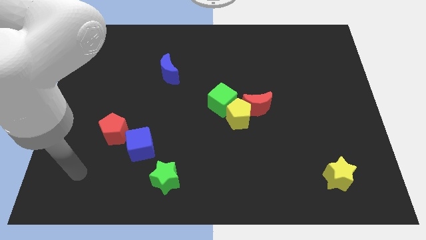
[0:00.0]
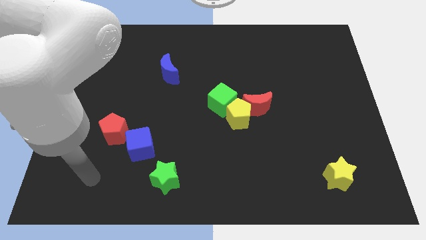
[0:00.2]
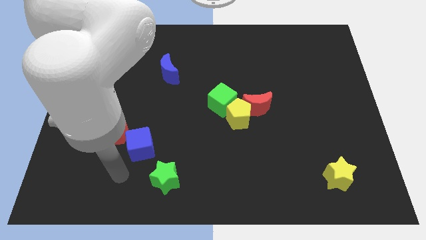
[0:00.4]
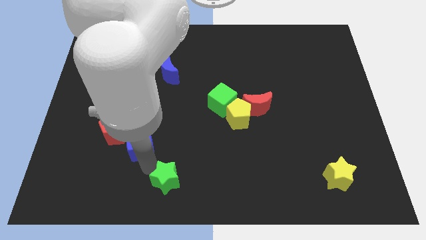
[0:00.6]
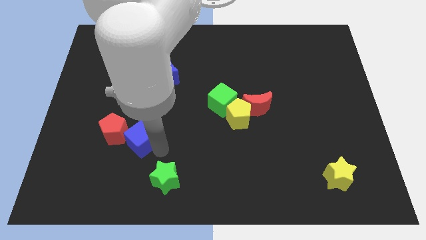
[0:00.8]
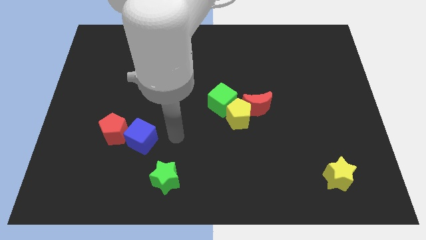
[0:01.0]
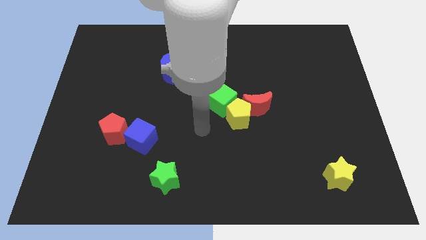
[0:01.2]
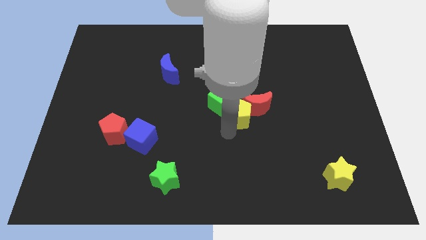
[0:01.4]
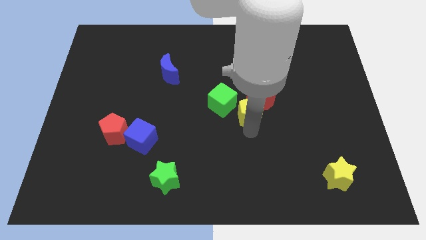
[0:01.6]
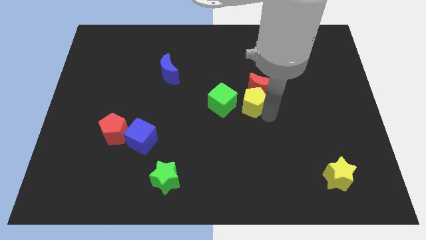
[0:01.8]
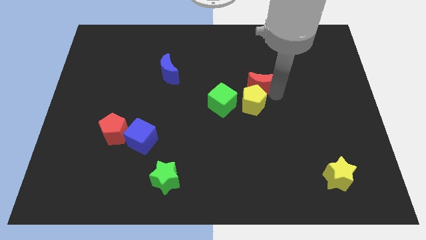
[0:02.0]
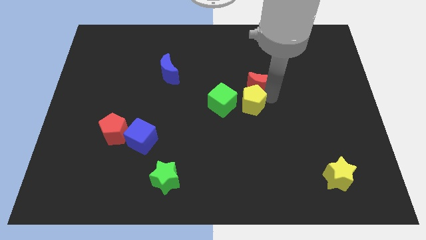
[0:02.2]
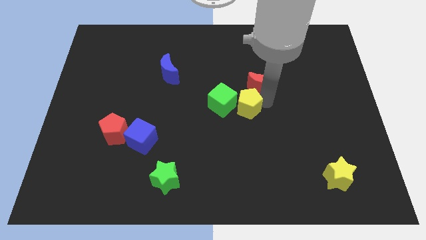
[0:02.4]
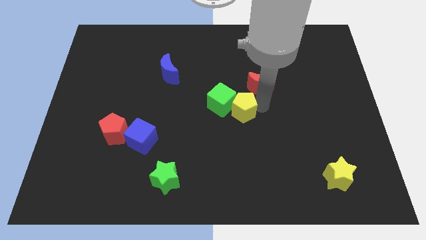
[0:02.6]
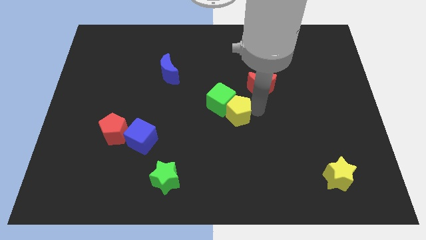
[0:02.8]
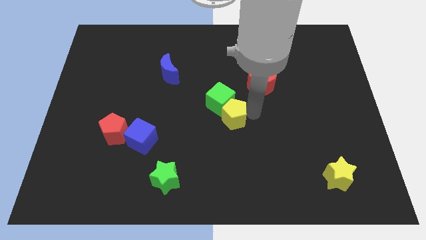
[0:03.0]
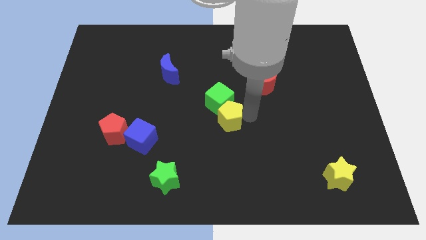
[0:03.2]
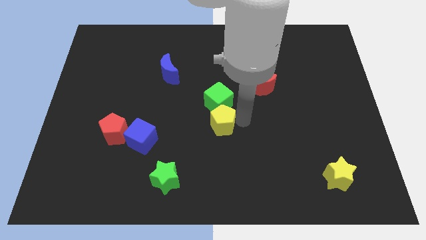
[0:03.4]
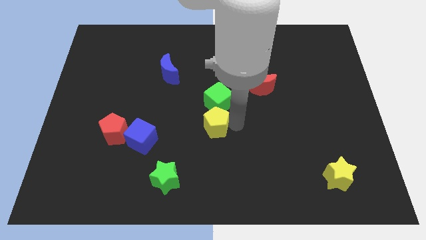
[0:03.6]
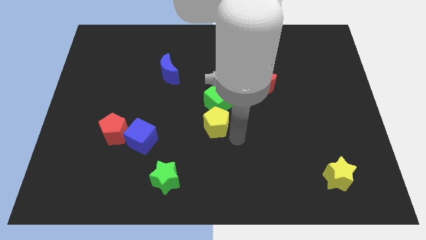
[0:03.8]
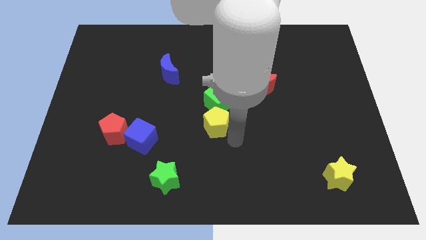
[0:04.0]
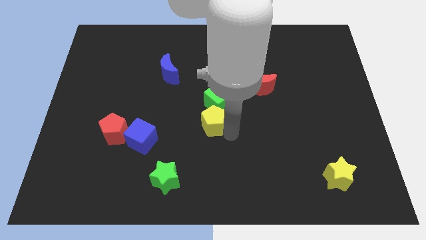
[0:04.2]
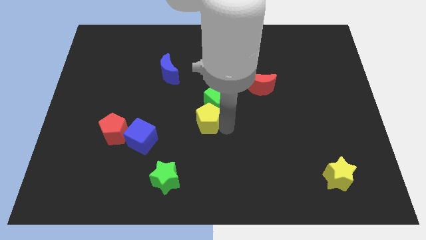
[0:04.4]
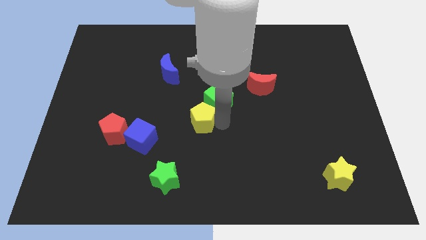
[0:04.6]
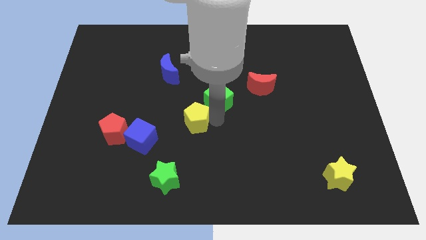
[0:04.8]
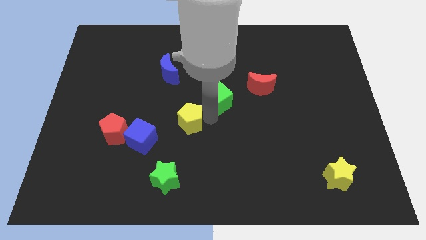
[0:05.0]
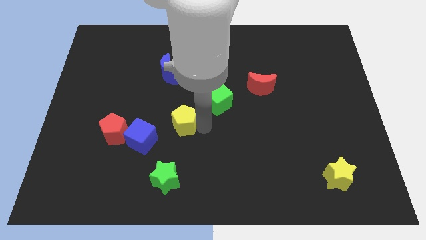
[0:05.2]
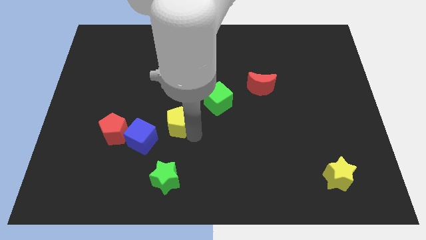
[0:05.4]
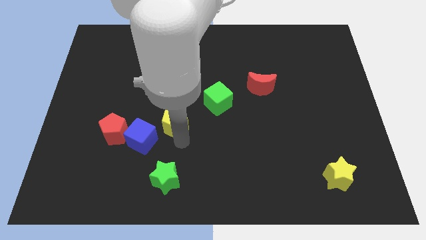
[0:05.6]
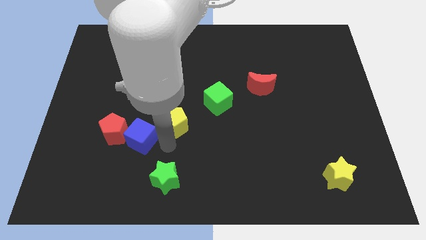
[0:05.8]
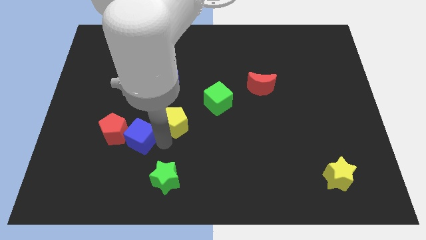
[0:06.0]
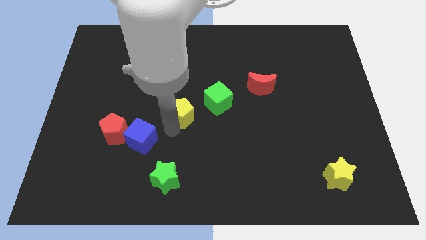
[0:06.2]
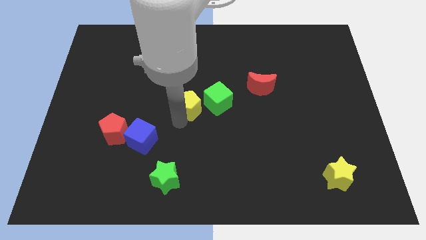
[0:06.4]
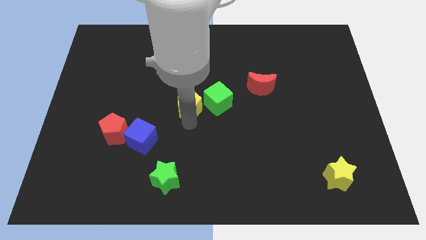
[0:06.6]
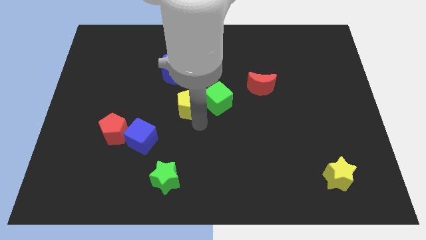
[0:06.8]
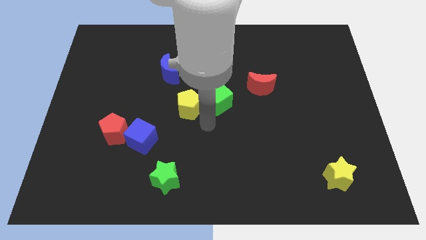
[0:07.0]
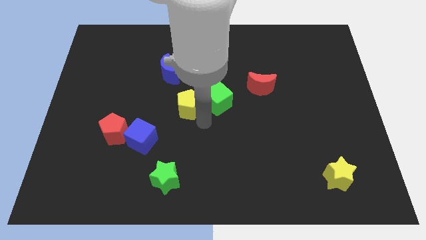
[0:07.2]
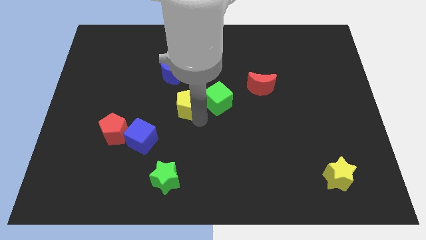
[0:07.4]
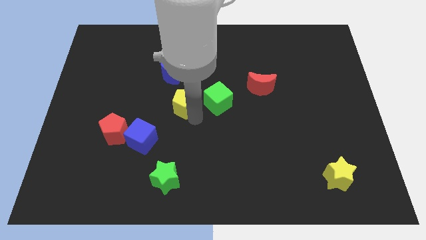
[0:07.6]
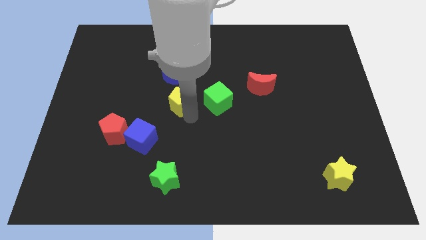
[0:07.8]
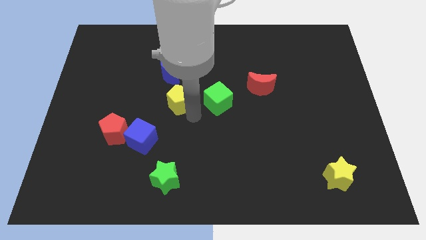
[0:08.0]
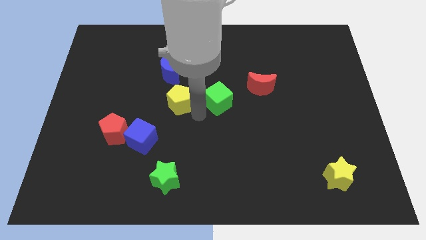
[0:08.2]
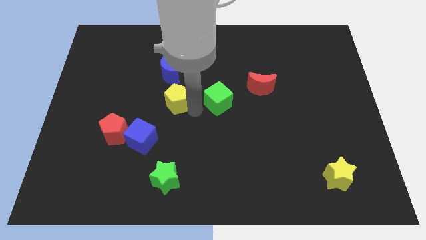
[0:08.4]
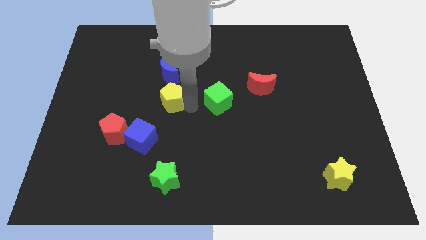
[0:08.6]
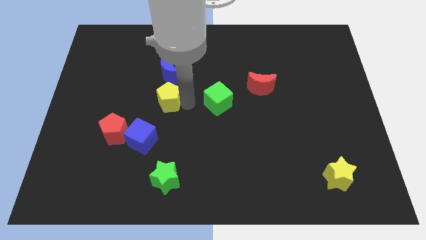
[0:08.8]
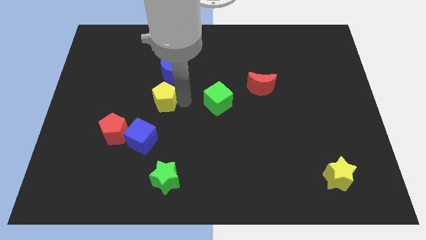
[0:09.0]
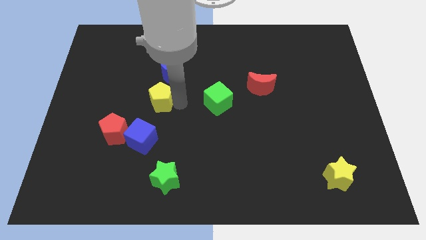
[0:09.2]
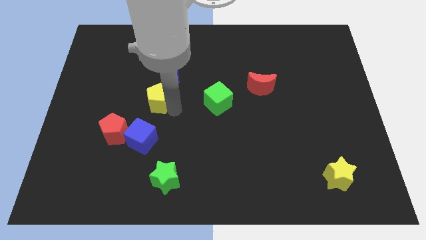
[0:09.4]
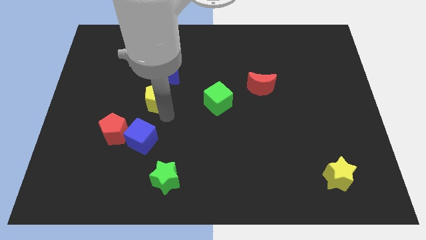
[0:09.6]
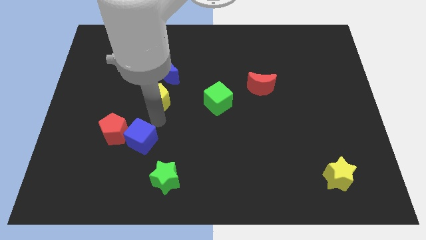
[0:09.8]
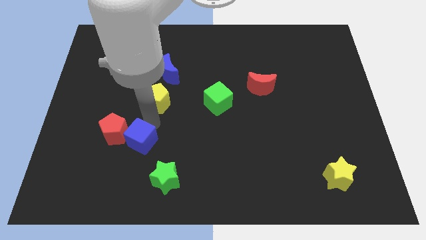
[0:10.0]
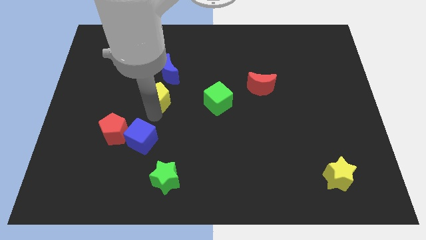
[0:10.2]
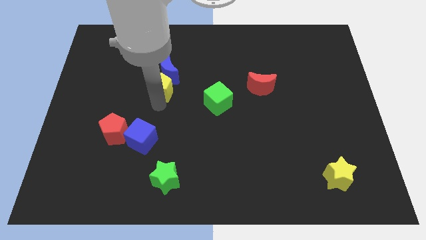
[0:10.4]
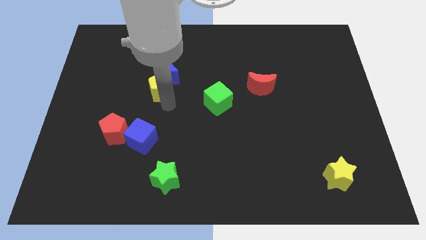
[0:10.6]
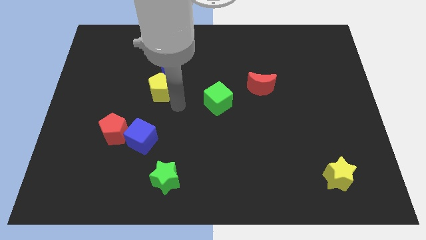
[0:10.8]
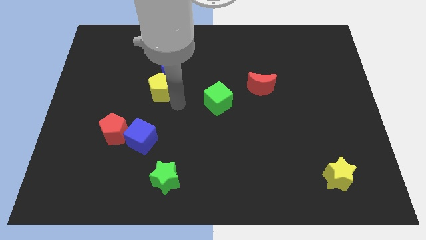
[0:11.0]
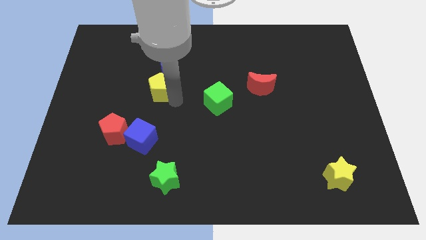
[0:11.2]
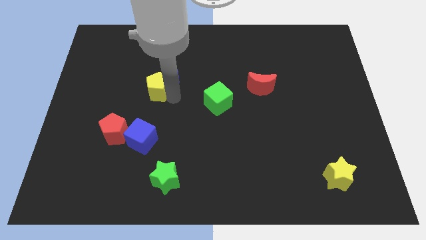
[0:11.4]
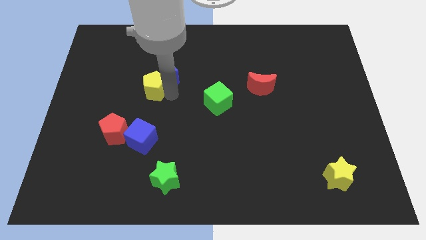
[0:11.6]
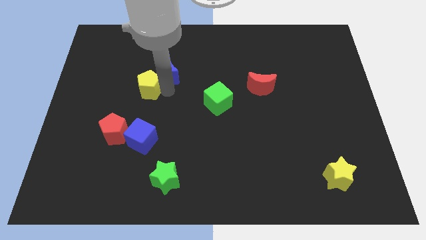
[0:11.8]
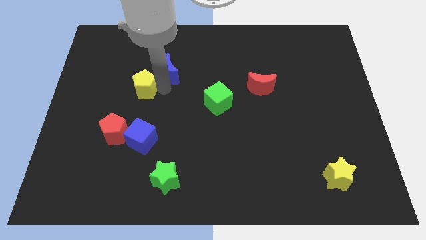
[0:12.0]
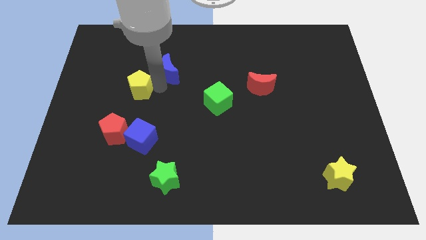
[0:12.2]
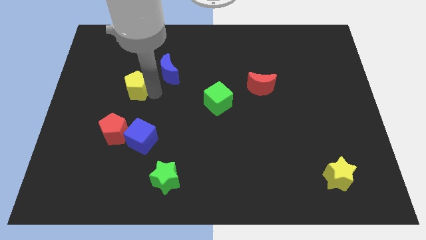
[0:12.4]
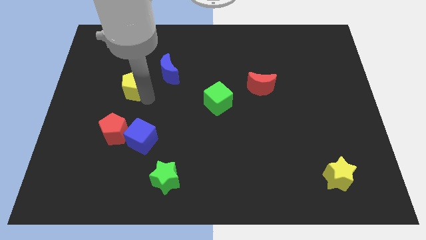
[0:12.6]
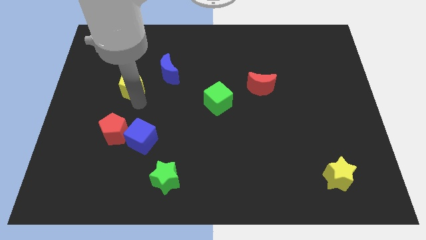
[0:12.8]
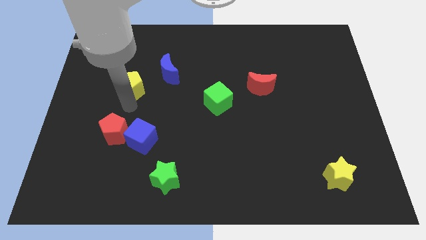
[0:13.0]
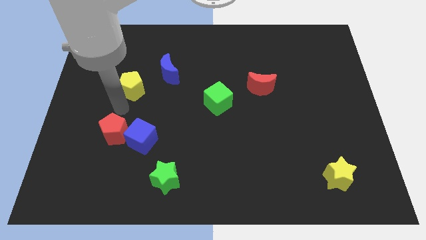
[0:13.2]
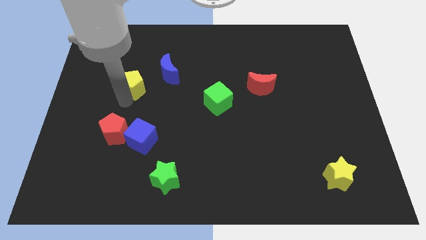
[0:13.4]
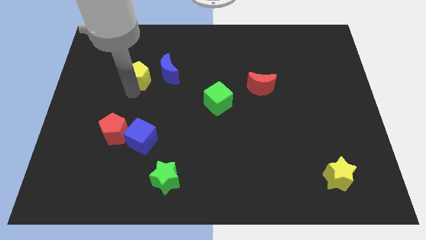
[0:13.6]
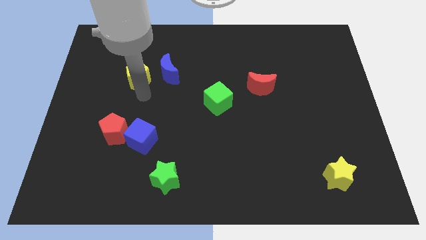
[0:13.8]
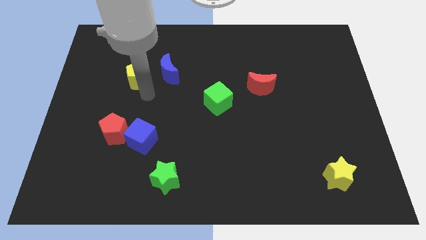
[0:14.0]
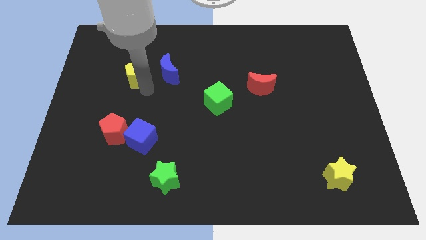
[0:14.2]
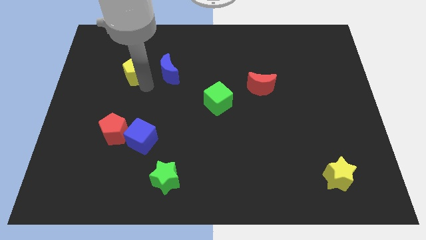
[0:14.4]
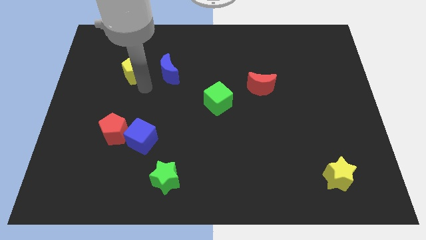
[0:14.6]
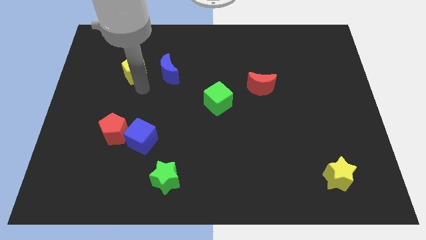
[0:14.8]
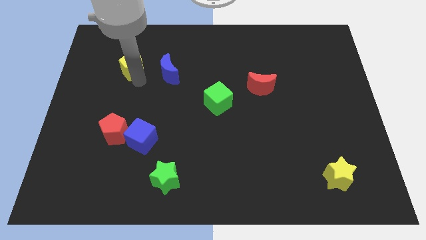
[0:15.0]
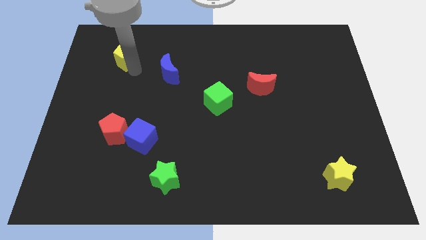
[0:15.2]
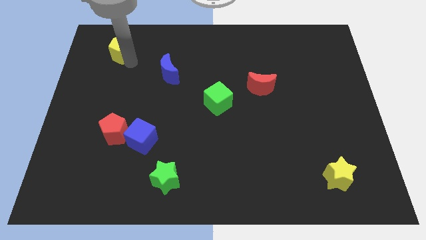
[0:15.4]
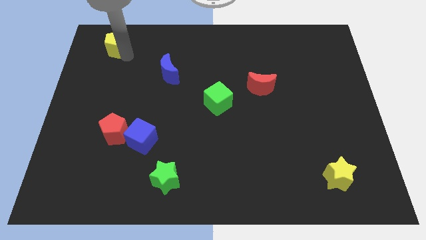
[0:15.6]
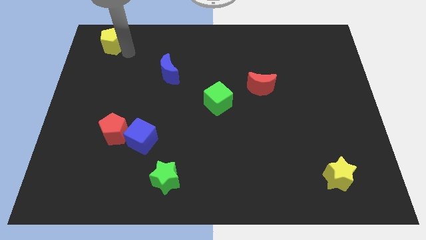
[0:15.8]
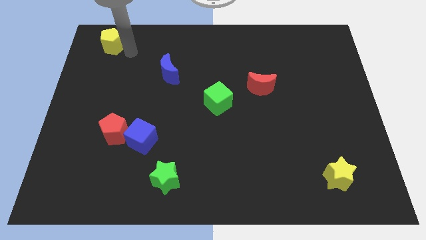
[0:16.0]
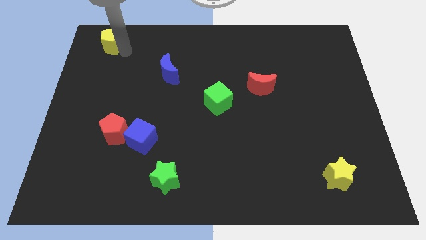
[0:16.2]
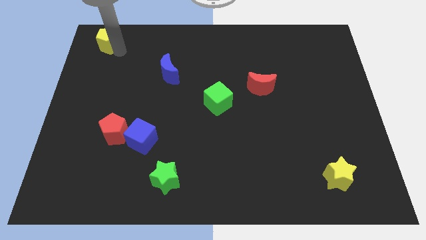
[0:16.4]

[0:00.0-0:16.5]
move the yellow pentagon to the upper left corner
